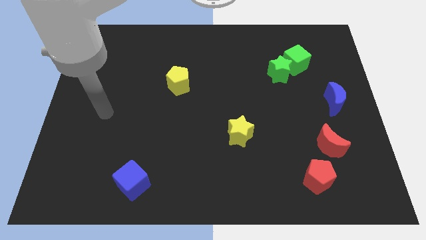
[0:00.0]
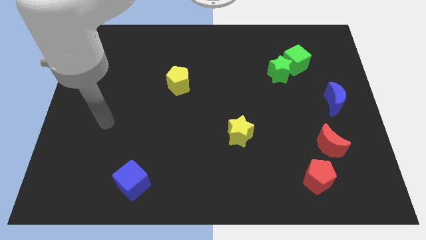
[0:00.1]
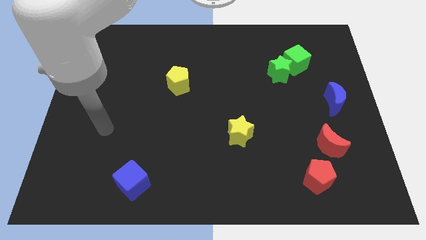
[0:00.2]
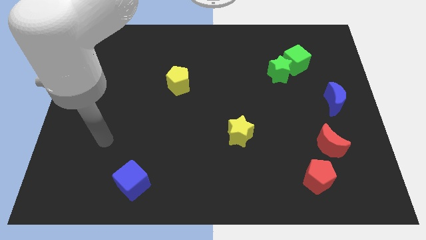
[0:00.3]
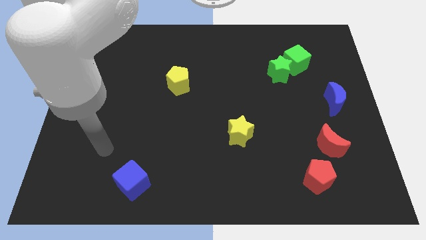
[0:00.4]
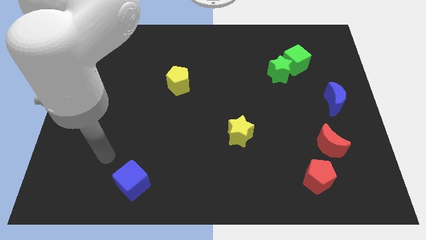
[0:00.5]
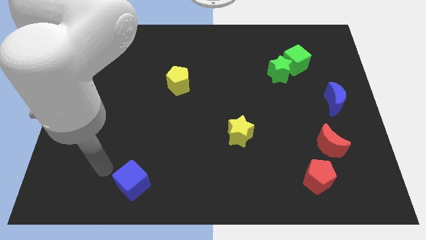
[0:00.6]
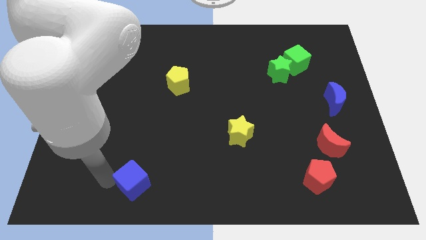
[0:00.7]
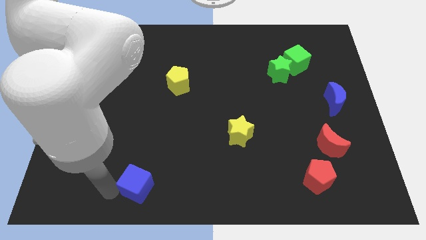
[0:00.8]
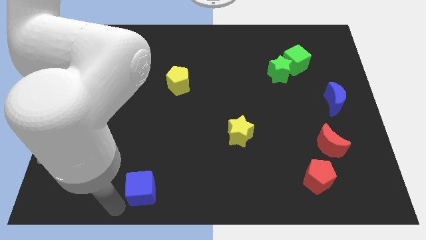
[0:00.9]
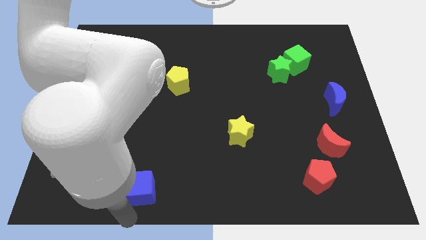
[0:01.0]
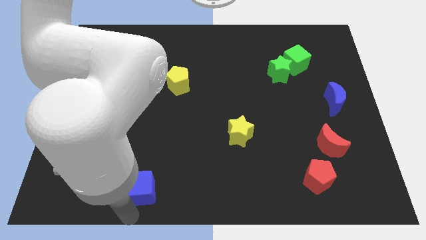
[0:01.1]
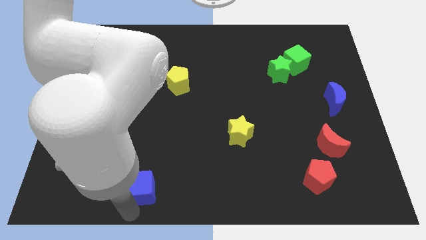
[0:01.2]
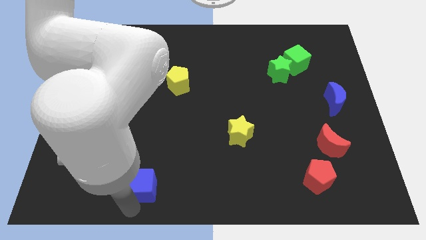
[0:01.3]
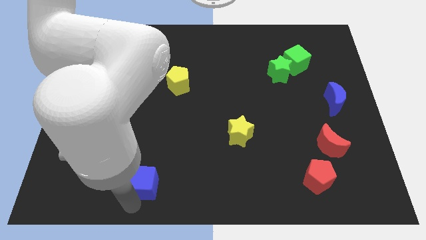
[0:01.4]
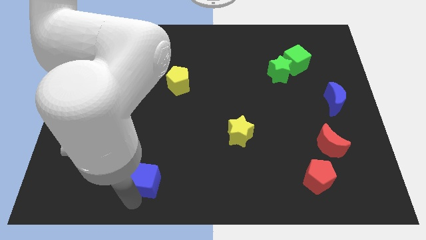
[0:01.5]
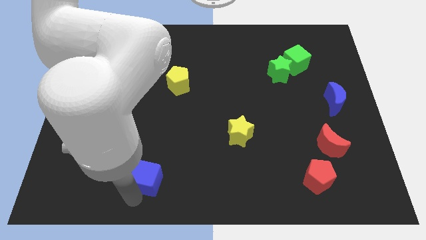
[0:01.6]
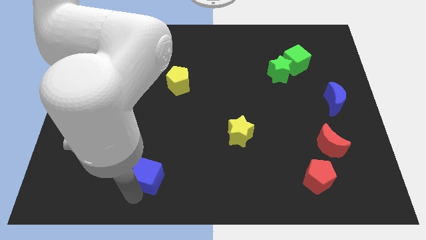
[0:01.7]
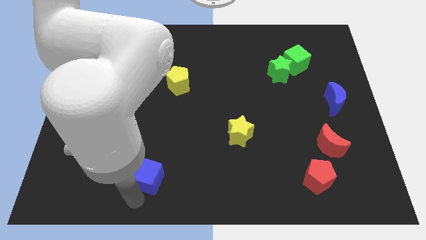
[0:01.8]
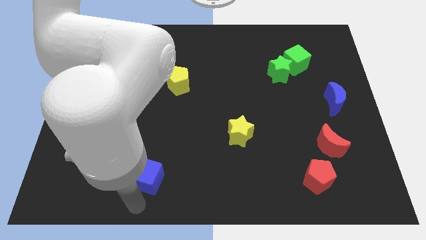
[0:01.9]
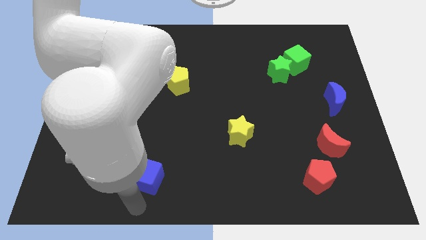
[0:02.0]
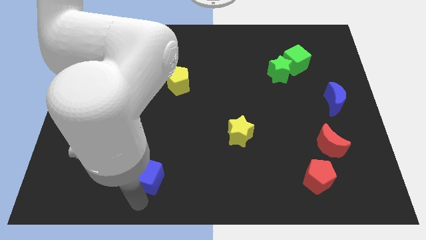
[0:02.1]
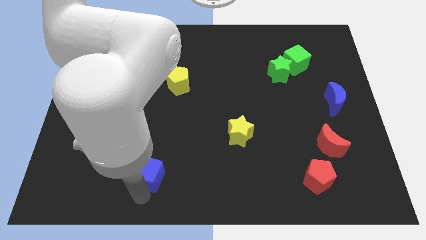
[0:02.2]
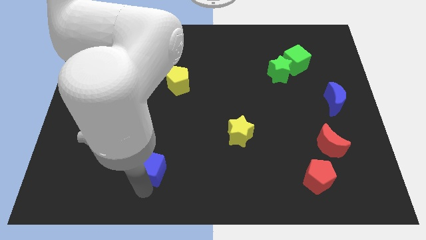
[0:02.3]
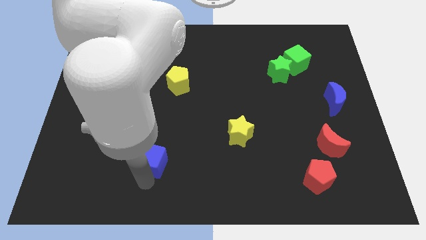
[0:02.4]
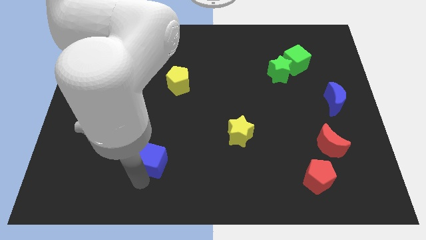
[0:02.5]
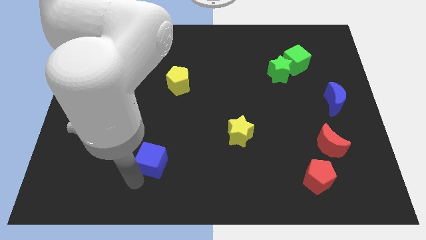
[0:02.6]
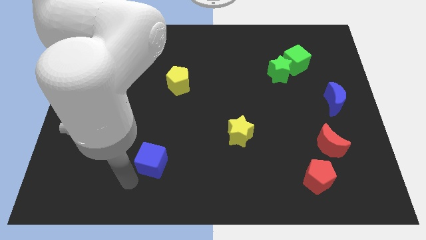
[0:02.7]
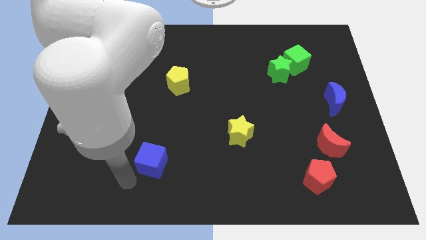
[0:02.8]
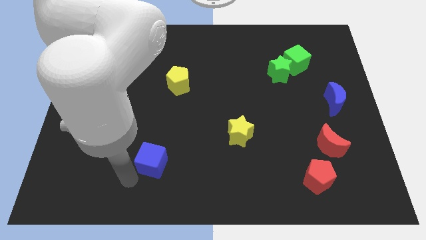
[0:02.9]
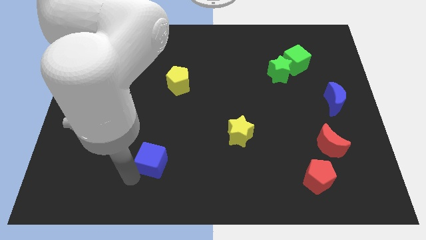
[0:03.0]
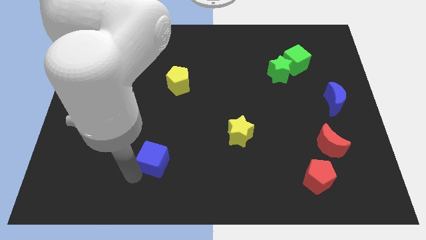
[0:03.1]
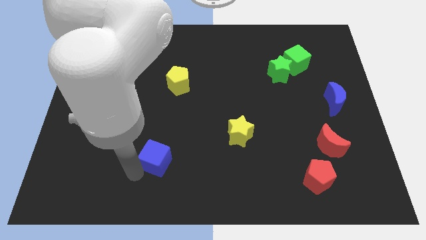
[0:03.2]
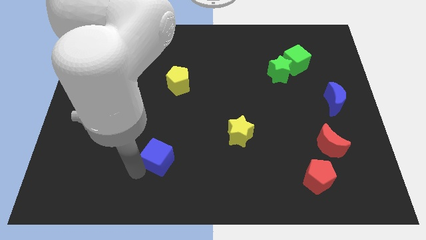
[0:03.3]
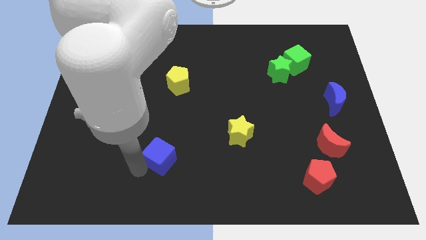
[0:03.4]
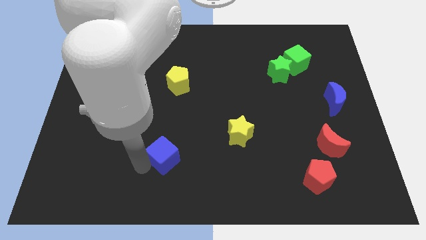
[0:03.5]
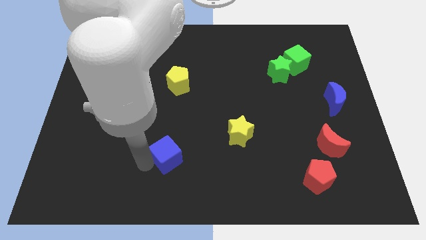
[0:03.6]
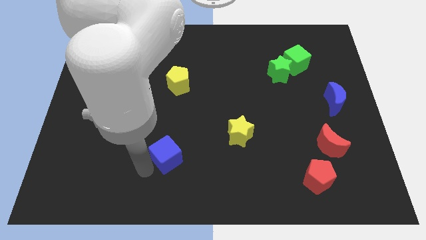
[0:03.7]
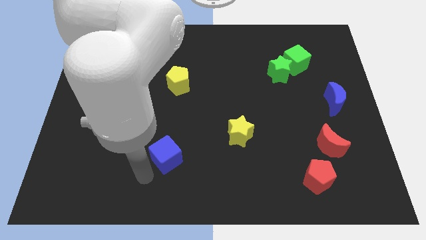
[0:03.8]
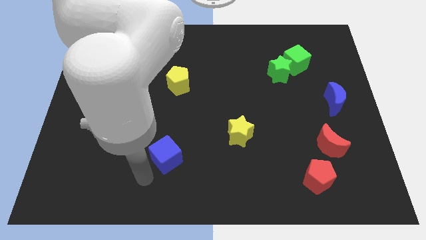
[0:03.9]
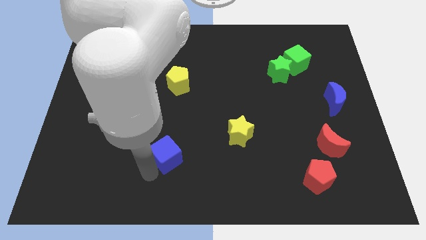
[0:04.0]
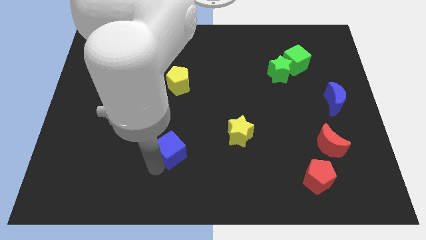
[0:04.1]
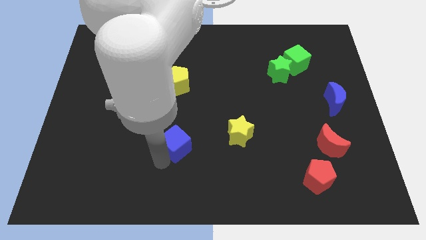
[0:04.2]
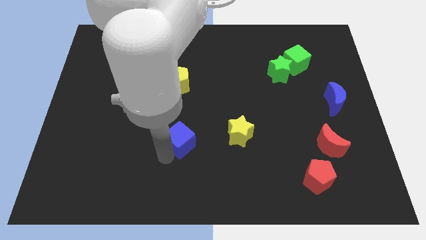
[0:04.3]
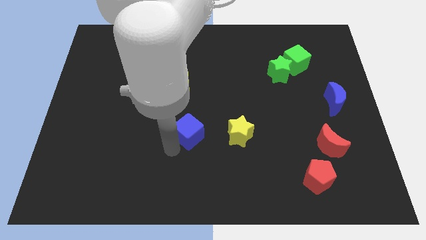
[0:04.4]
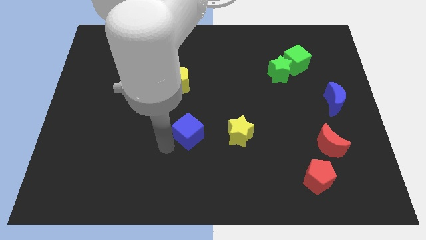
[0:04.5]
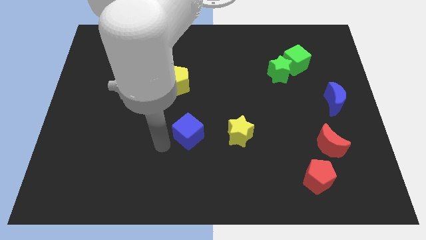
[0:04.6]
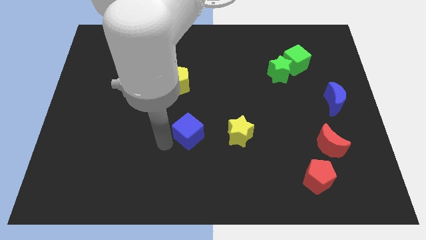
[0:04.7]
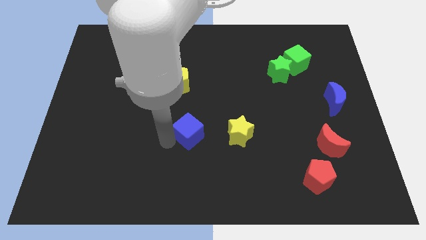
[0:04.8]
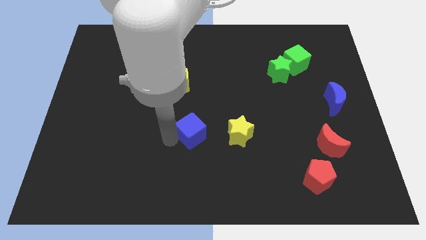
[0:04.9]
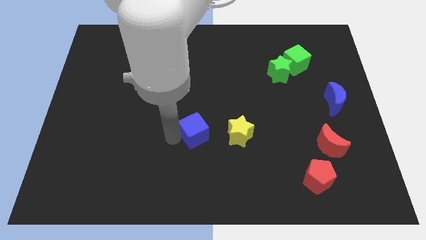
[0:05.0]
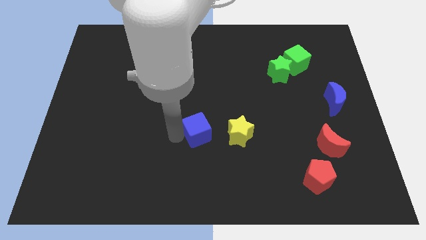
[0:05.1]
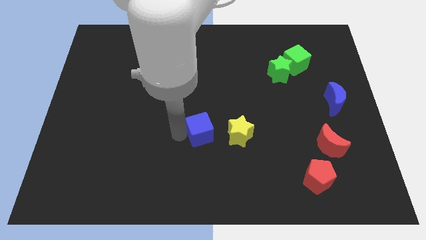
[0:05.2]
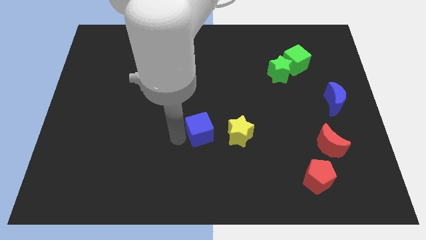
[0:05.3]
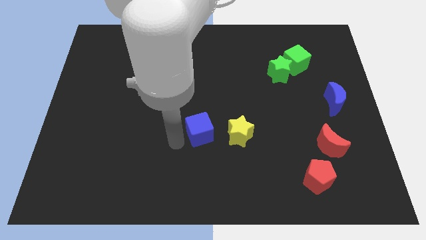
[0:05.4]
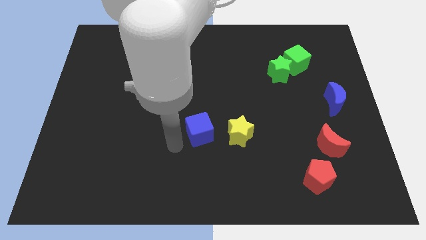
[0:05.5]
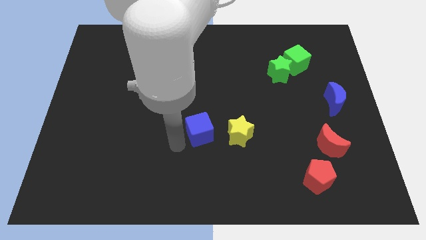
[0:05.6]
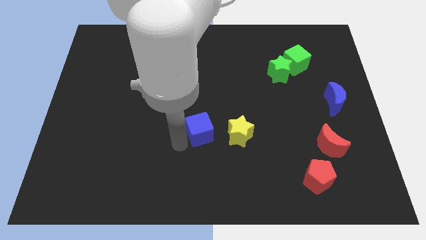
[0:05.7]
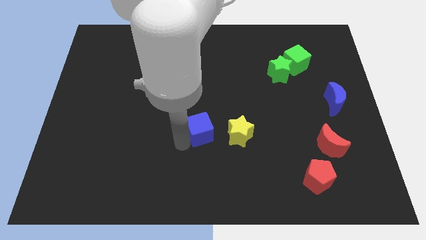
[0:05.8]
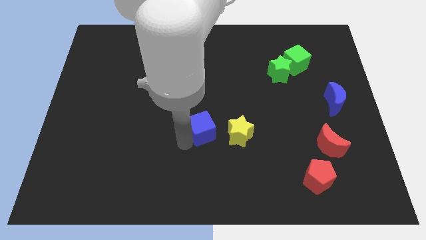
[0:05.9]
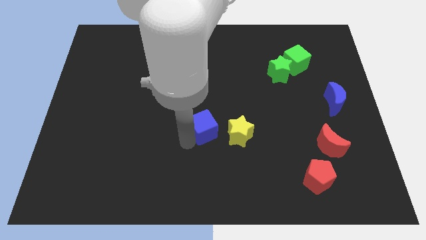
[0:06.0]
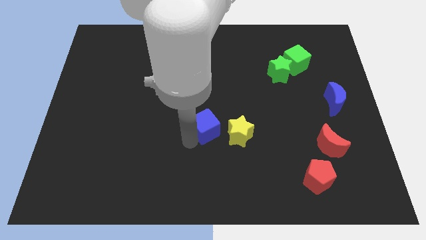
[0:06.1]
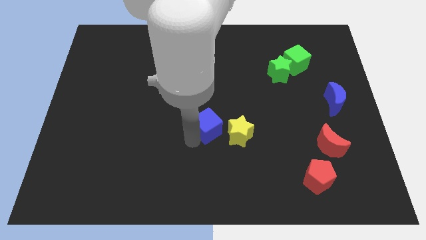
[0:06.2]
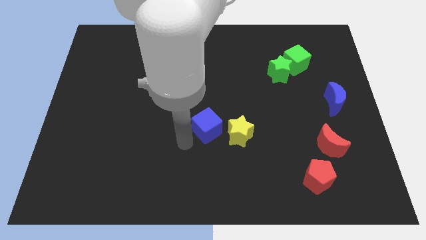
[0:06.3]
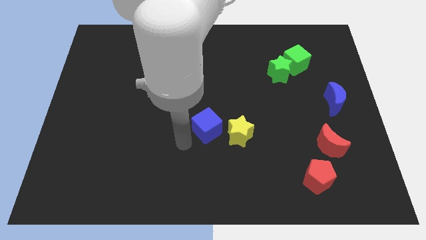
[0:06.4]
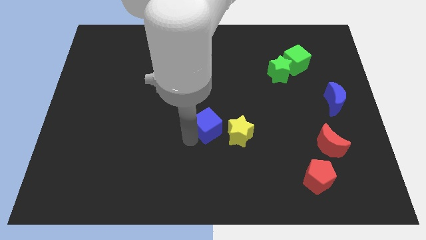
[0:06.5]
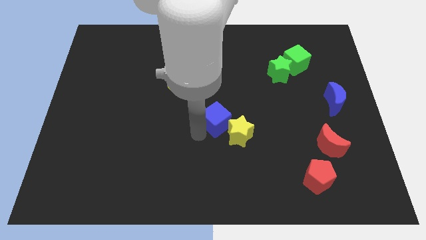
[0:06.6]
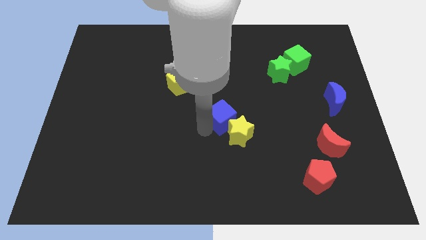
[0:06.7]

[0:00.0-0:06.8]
push the blue cube above the yellow star

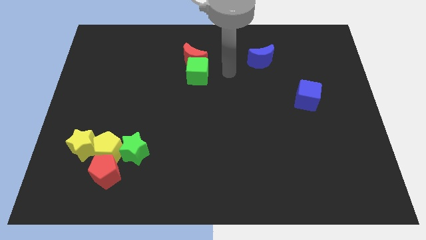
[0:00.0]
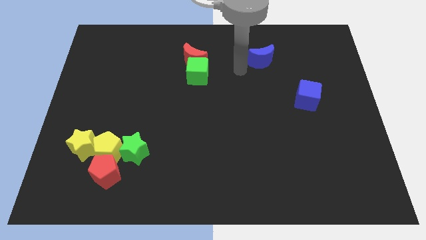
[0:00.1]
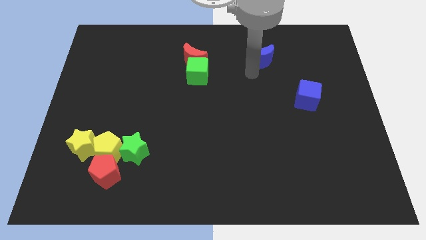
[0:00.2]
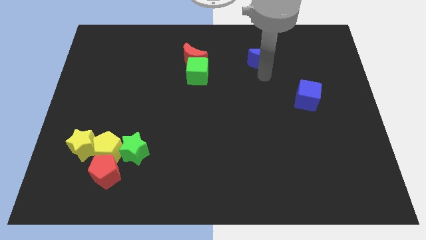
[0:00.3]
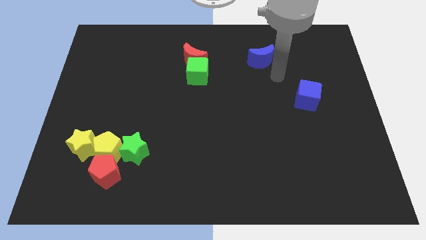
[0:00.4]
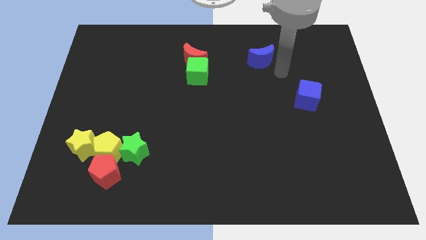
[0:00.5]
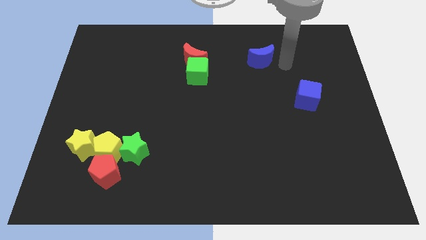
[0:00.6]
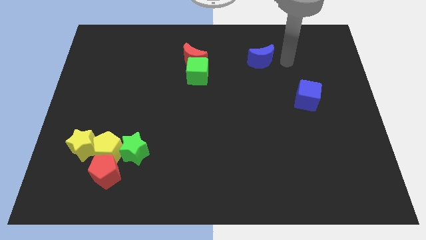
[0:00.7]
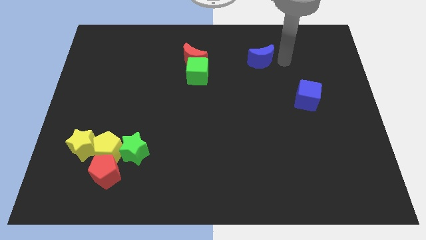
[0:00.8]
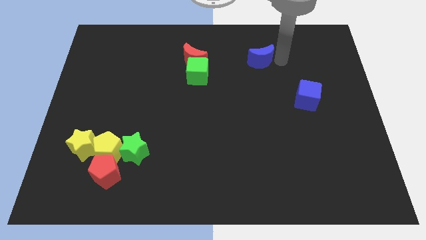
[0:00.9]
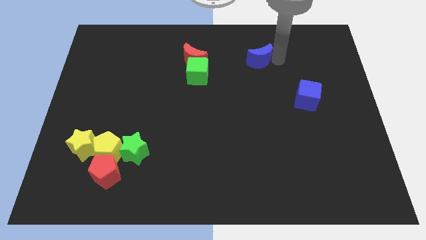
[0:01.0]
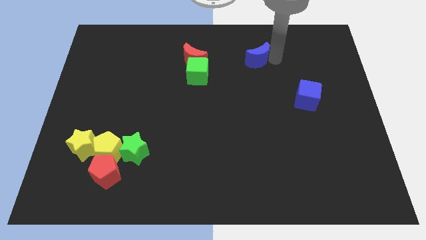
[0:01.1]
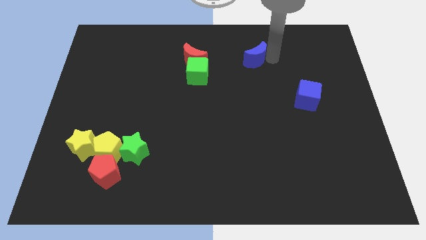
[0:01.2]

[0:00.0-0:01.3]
slide the blue moon to the right of the red moon
